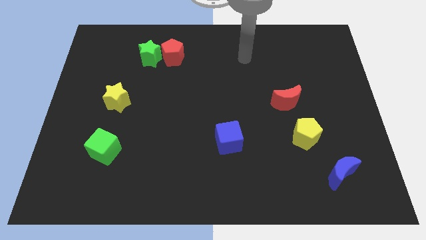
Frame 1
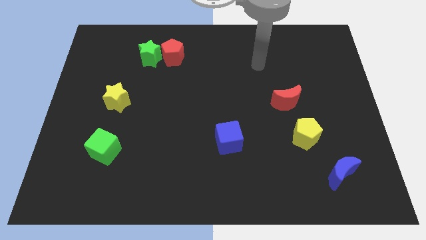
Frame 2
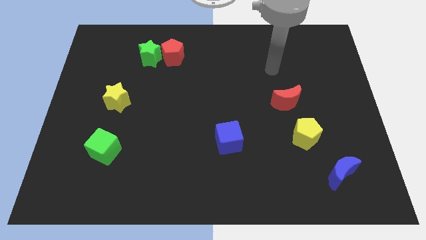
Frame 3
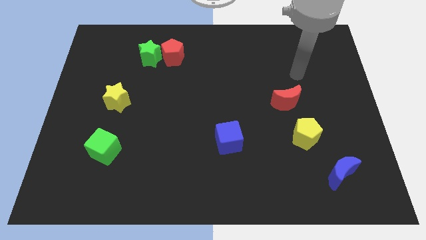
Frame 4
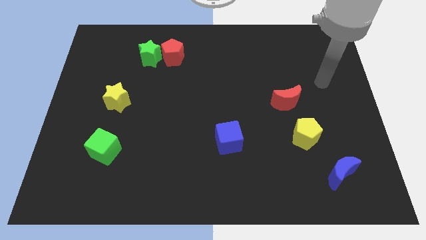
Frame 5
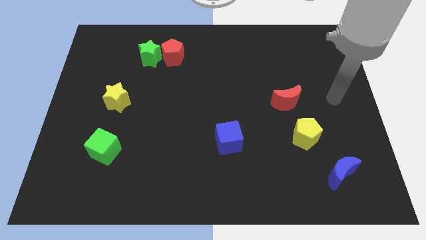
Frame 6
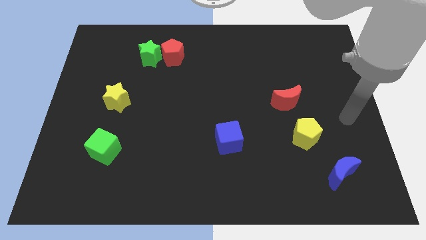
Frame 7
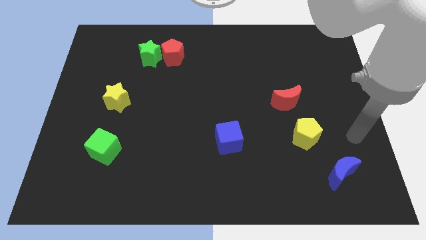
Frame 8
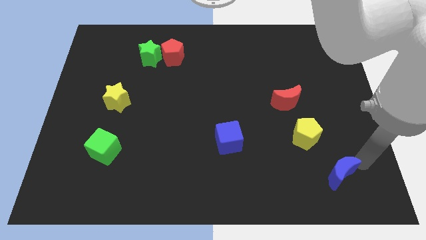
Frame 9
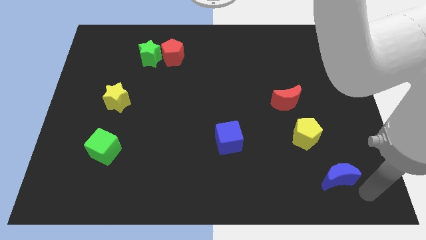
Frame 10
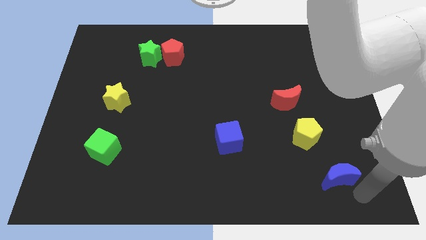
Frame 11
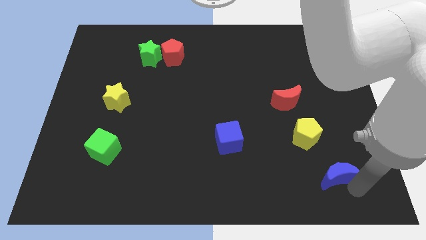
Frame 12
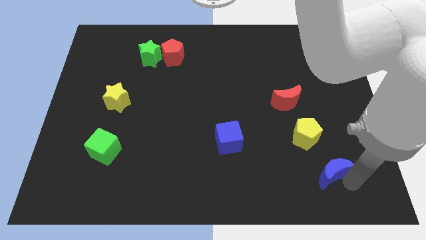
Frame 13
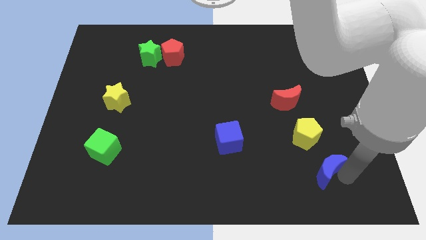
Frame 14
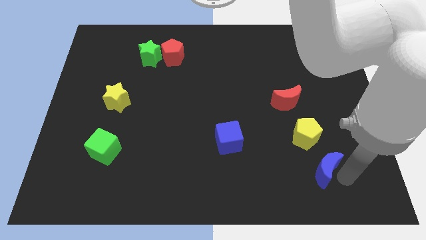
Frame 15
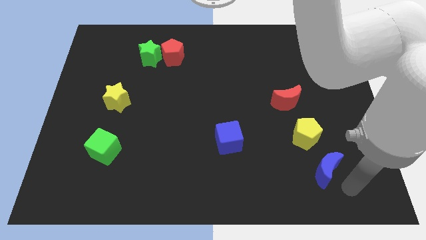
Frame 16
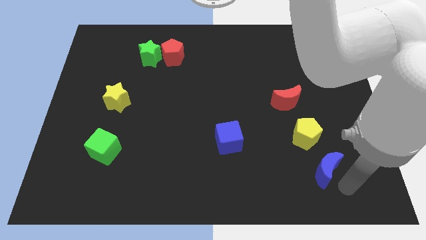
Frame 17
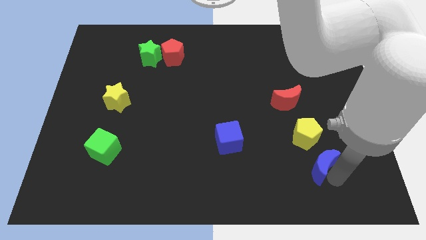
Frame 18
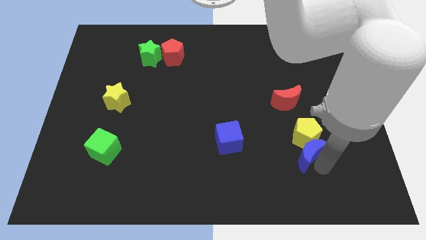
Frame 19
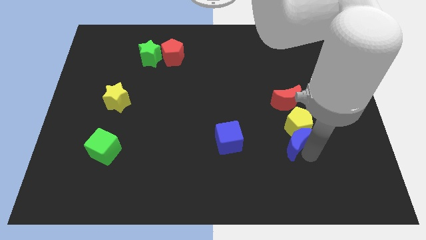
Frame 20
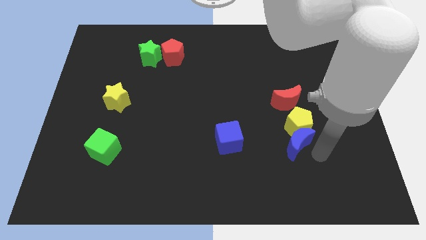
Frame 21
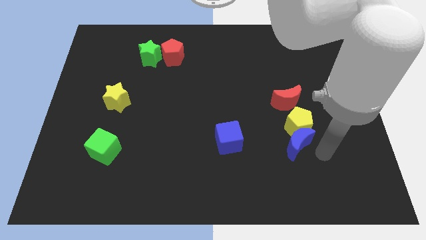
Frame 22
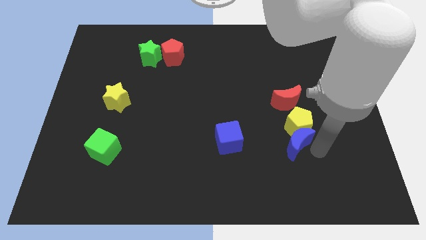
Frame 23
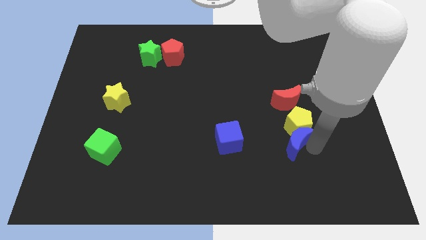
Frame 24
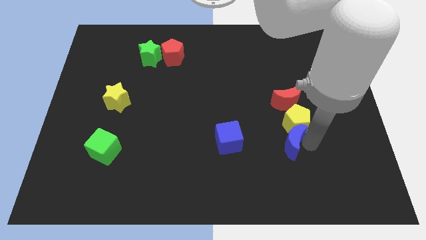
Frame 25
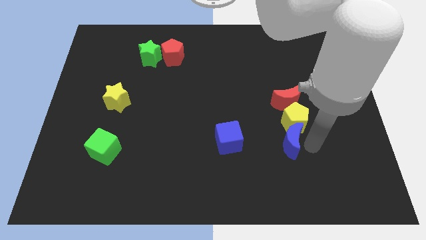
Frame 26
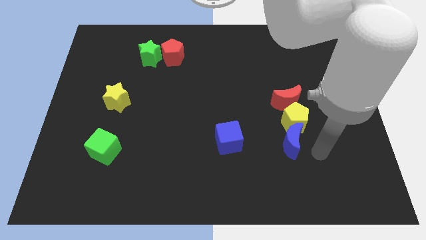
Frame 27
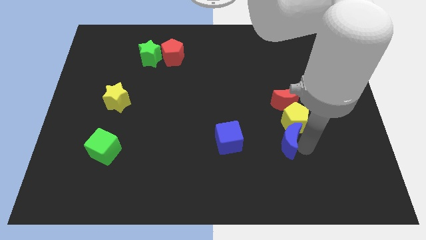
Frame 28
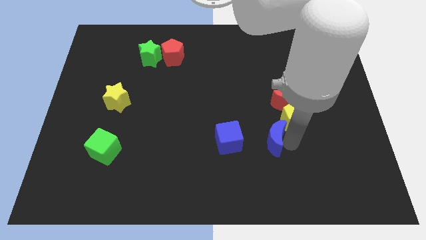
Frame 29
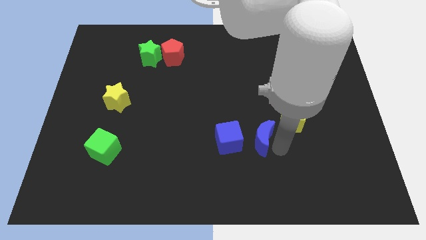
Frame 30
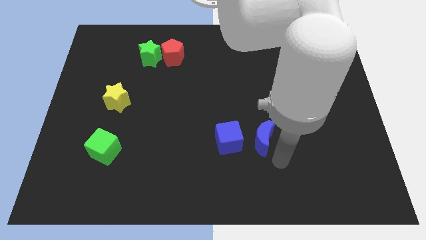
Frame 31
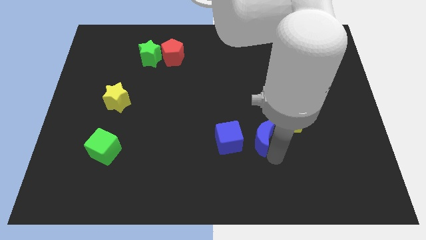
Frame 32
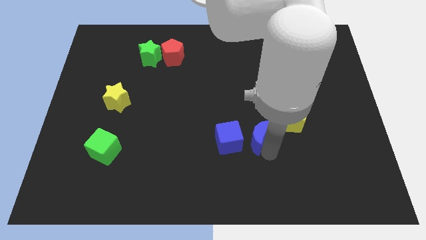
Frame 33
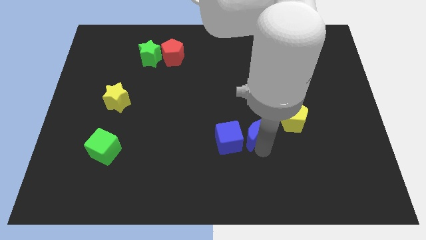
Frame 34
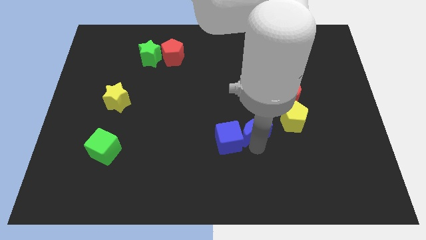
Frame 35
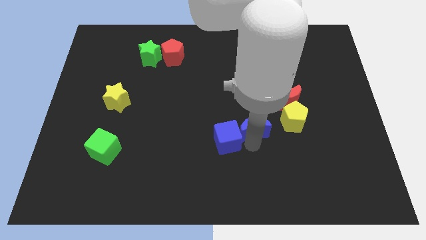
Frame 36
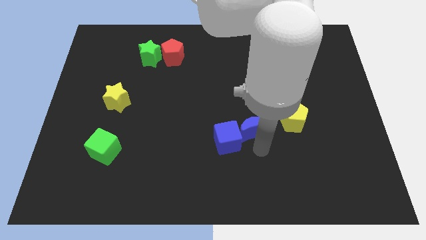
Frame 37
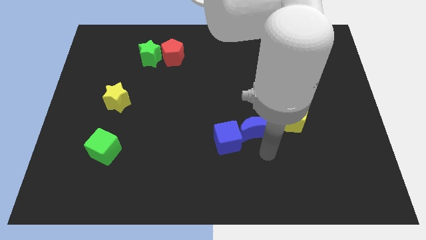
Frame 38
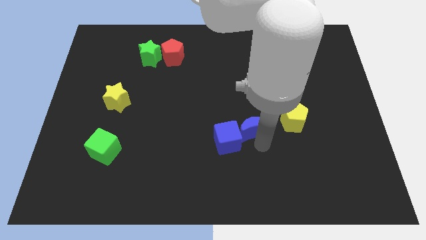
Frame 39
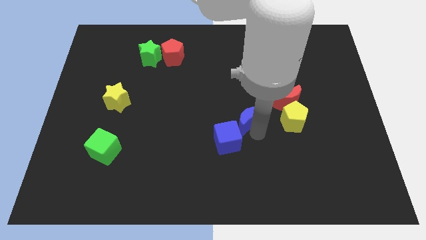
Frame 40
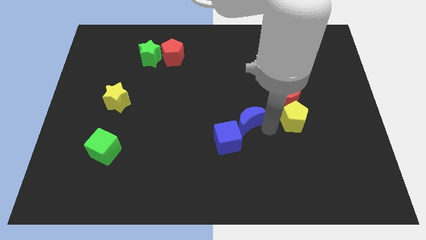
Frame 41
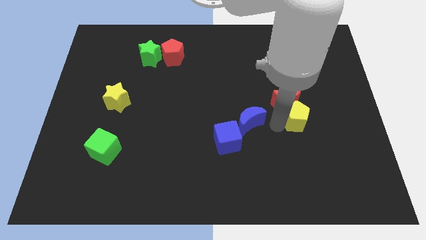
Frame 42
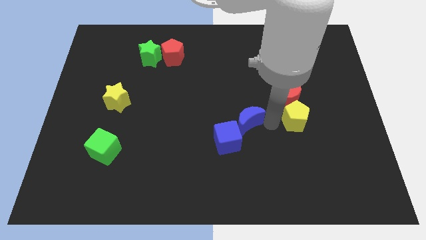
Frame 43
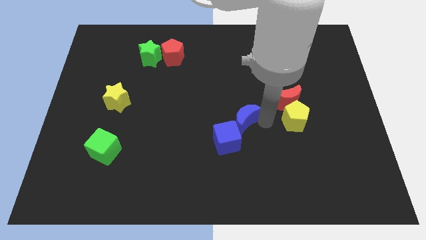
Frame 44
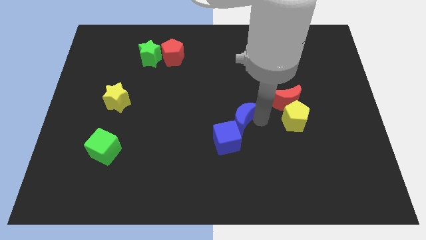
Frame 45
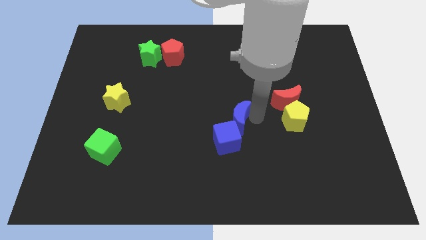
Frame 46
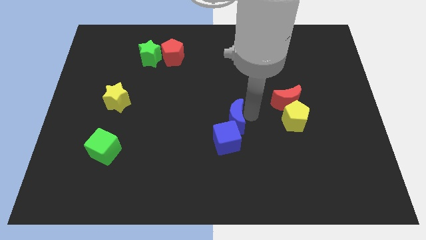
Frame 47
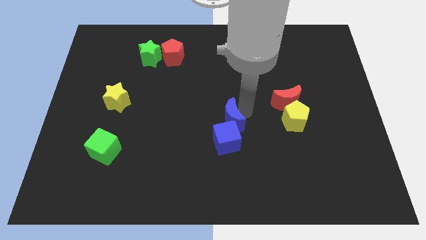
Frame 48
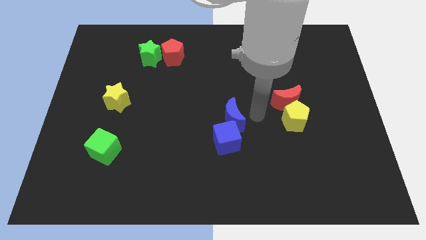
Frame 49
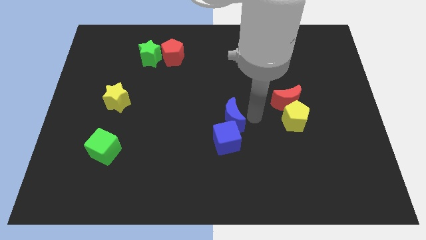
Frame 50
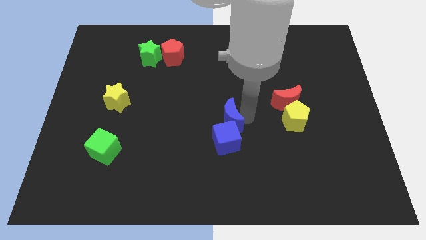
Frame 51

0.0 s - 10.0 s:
push the blue moon diagonally up and to the left of the blue cube

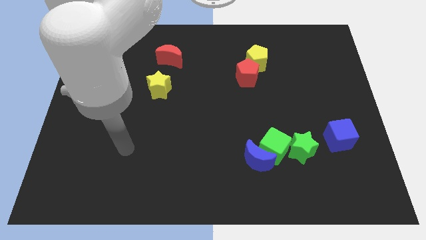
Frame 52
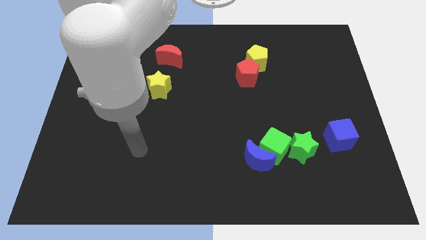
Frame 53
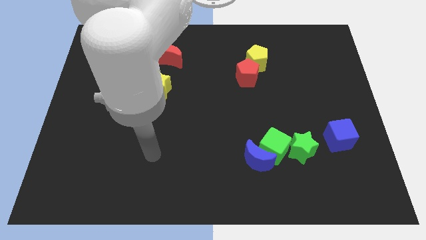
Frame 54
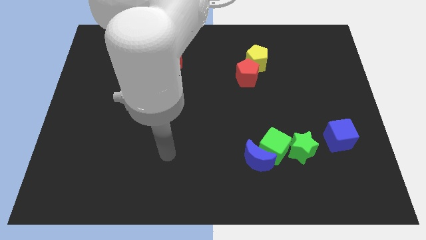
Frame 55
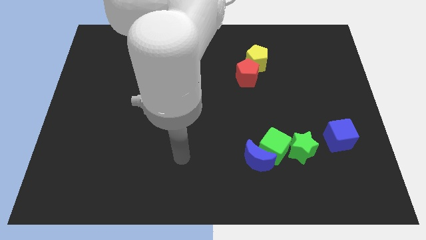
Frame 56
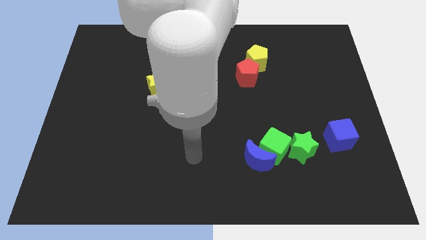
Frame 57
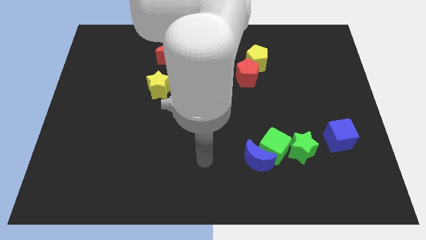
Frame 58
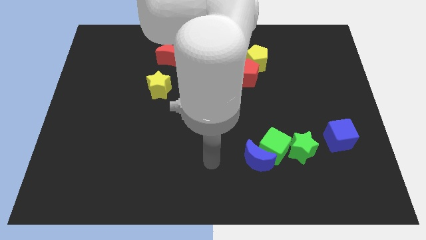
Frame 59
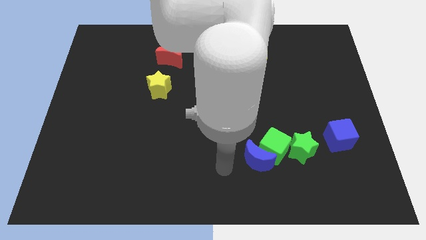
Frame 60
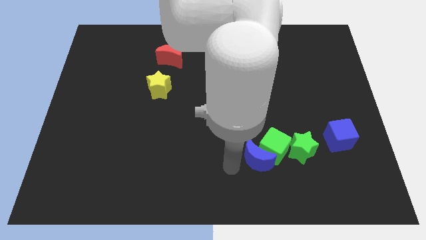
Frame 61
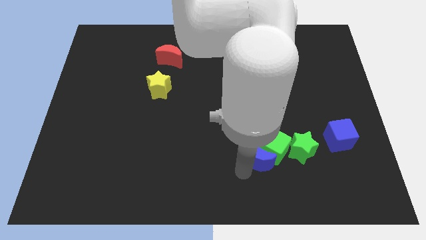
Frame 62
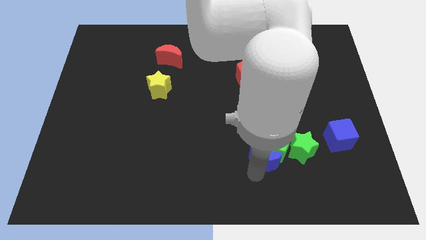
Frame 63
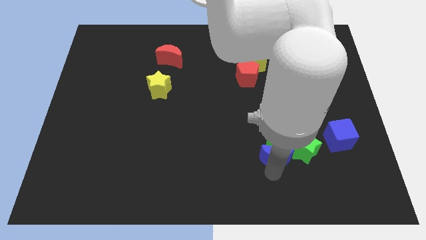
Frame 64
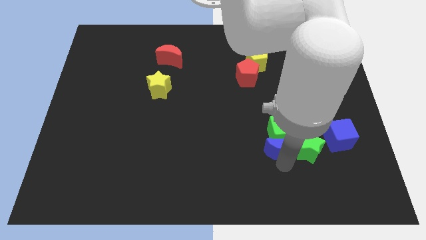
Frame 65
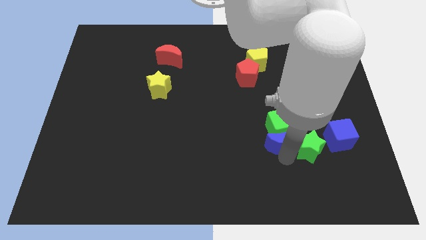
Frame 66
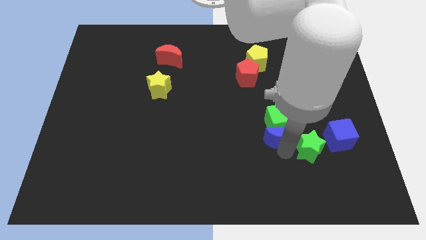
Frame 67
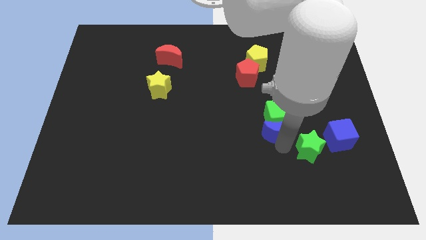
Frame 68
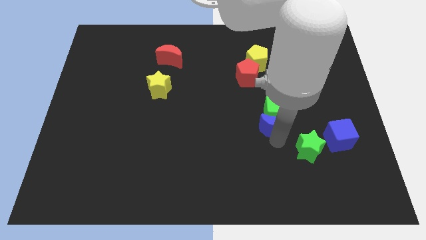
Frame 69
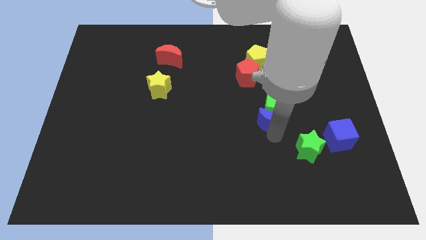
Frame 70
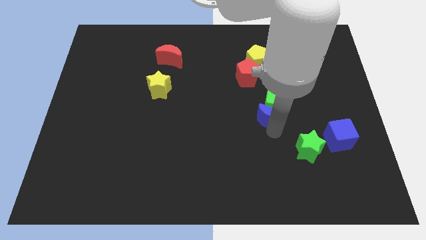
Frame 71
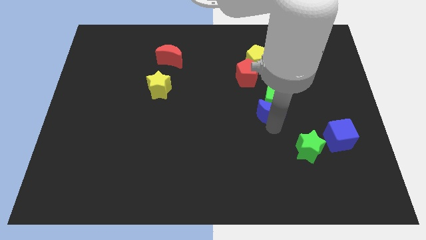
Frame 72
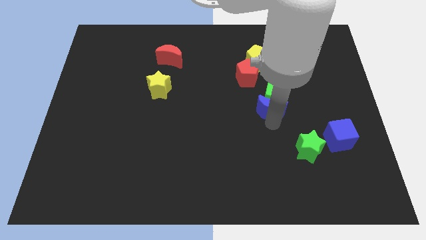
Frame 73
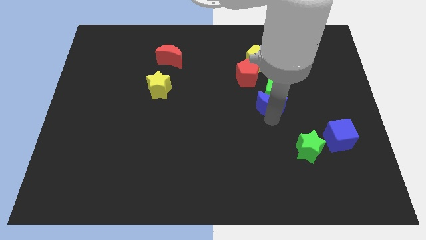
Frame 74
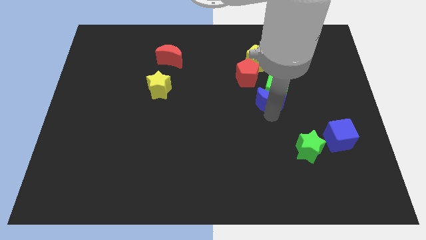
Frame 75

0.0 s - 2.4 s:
slide the green cube to the bottom right of the yellow pentagon

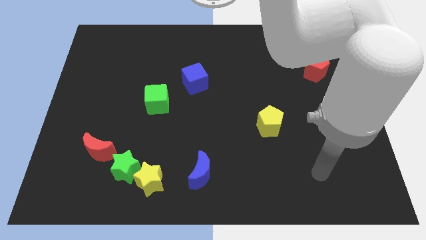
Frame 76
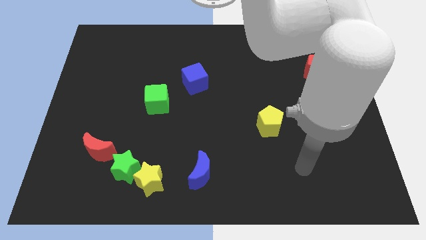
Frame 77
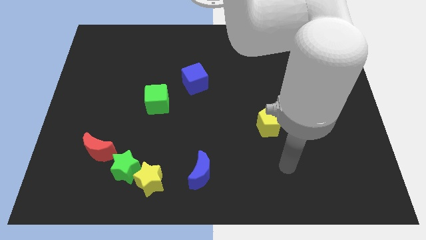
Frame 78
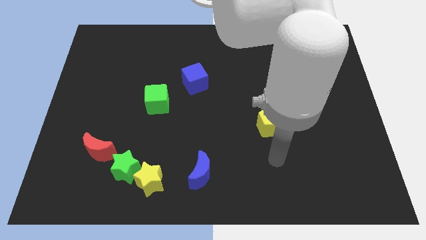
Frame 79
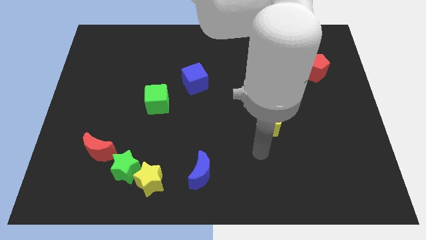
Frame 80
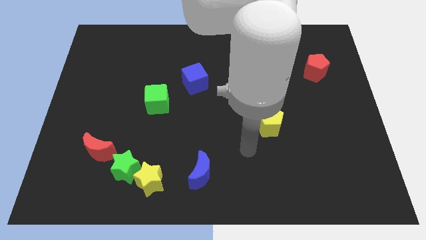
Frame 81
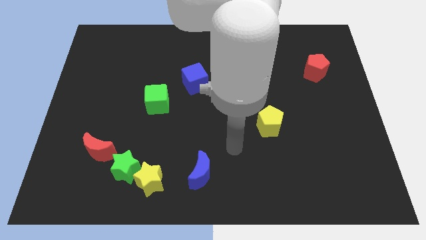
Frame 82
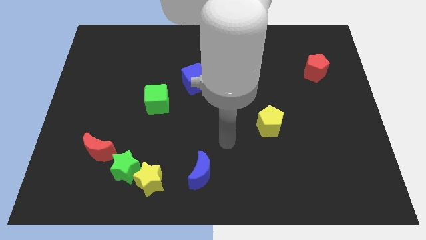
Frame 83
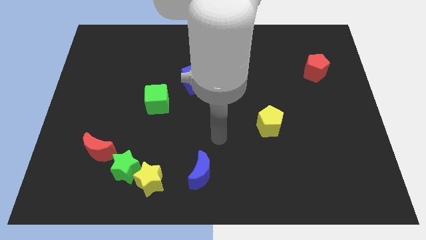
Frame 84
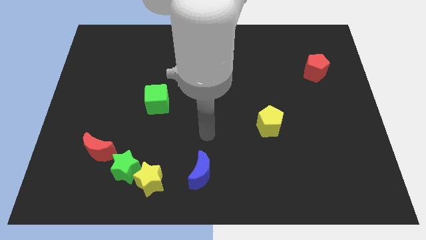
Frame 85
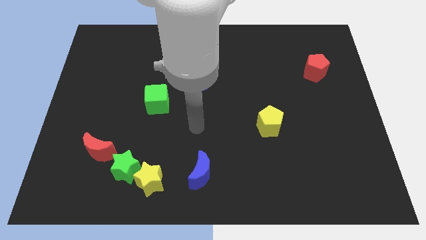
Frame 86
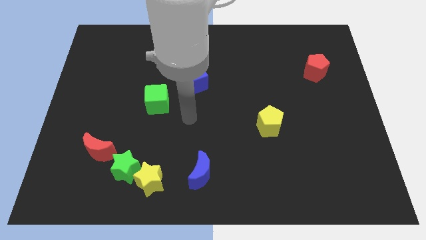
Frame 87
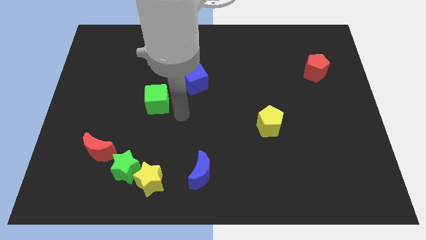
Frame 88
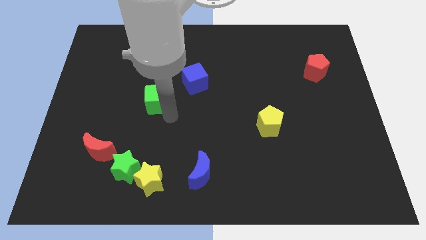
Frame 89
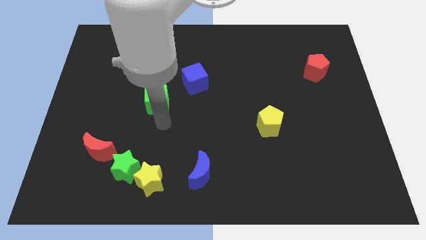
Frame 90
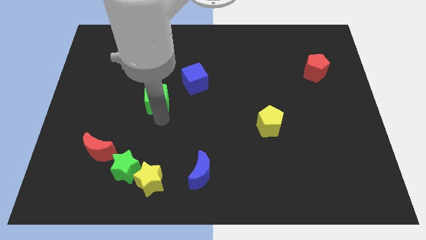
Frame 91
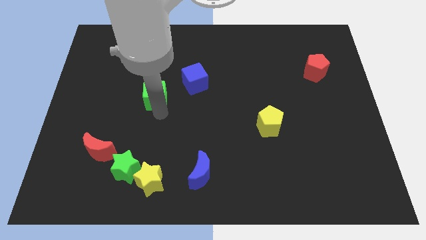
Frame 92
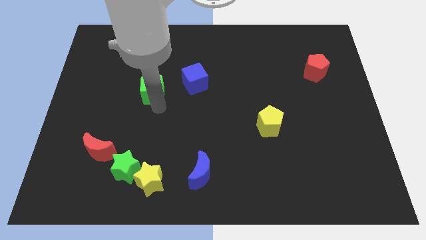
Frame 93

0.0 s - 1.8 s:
slide the green cube to the left of the blue cube
